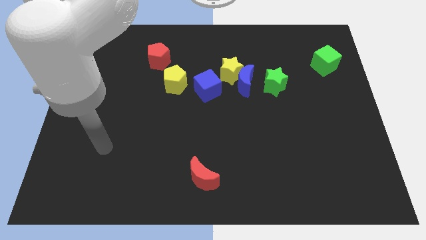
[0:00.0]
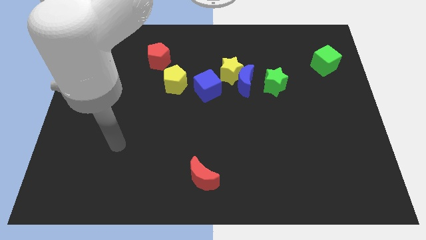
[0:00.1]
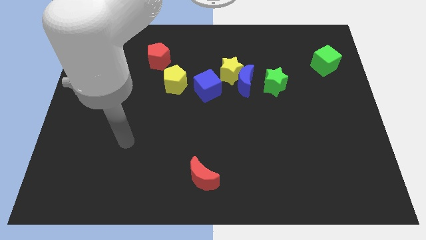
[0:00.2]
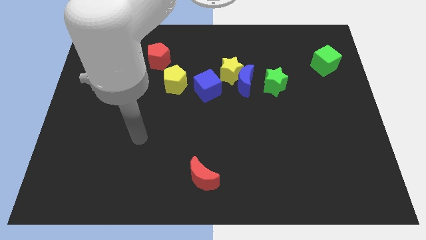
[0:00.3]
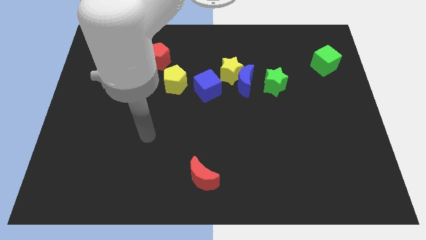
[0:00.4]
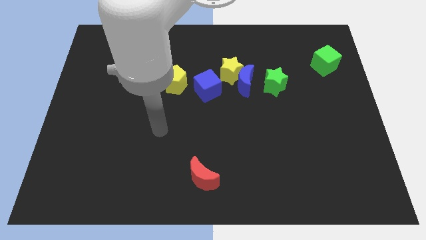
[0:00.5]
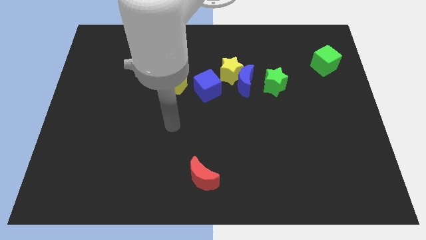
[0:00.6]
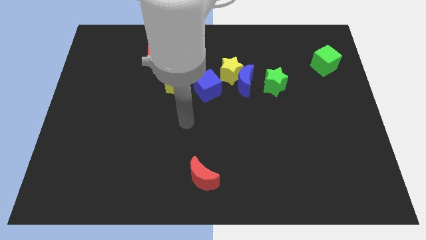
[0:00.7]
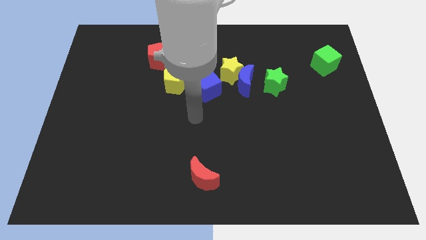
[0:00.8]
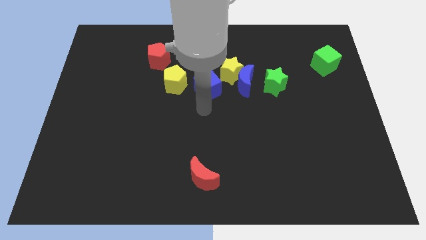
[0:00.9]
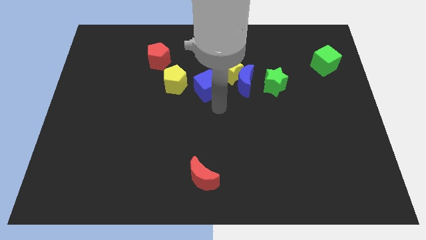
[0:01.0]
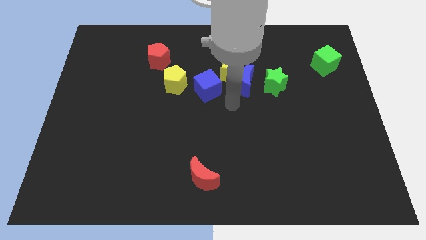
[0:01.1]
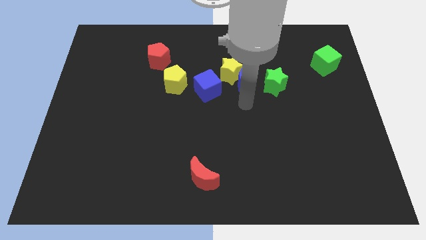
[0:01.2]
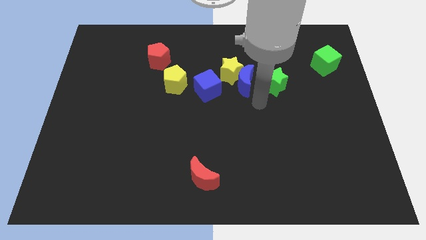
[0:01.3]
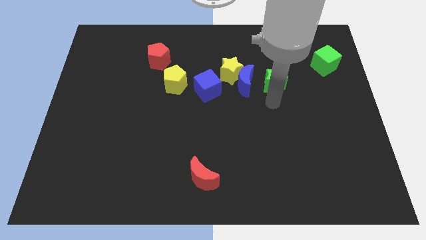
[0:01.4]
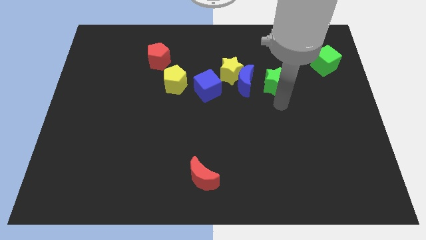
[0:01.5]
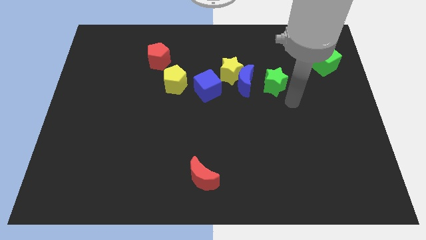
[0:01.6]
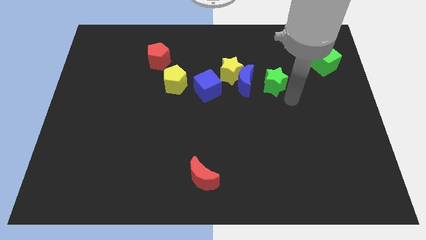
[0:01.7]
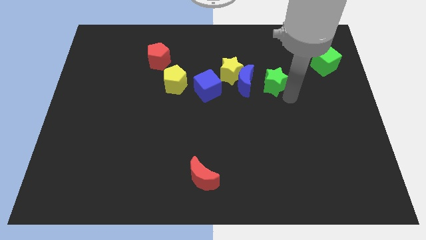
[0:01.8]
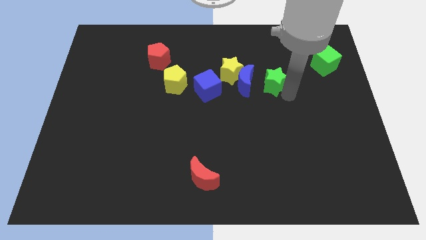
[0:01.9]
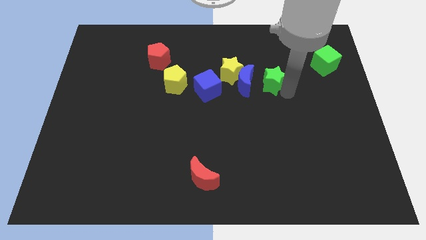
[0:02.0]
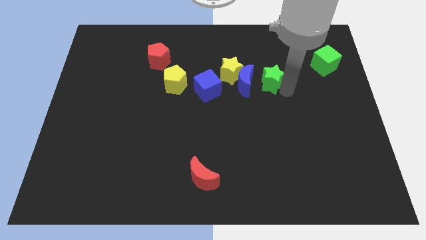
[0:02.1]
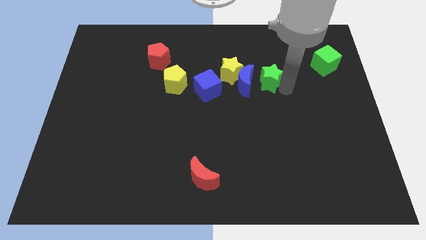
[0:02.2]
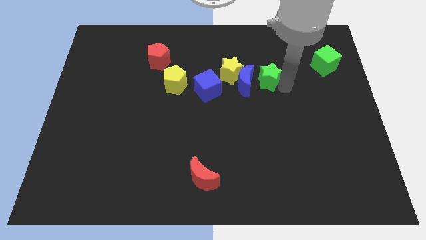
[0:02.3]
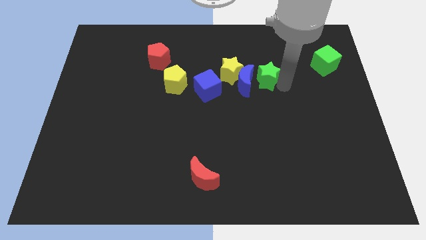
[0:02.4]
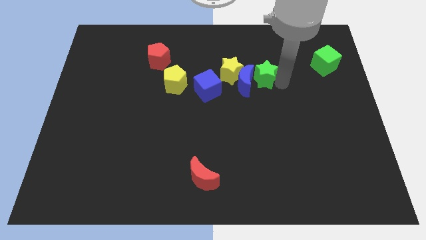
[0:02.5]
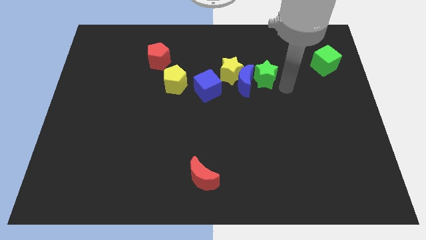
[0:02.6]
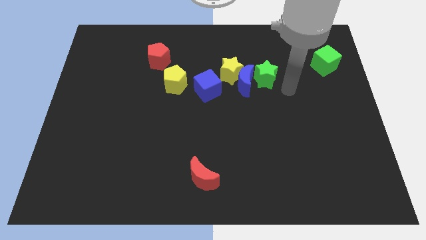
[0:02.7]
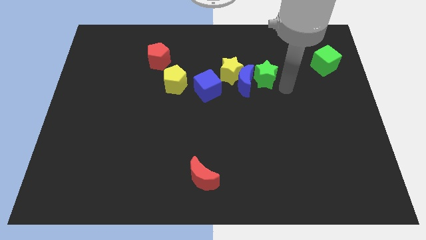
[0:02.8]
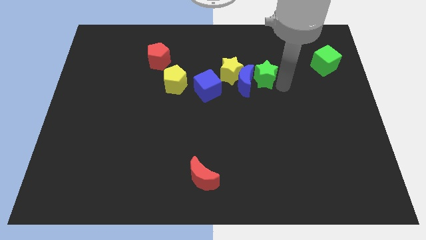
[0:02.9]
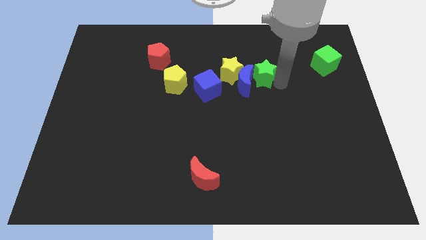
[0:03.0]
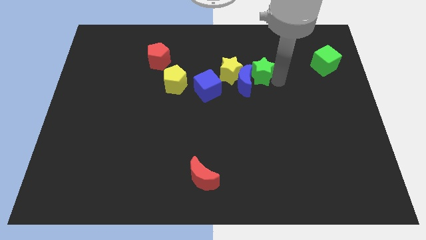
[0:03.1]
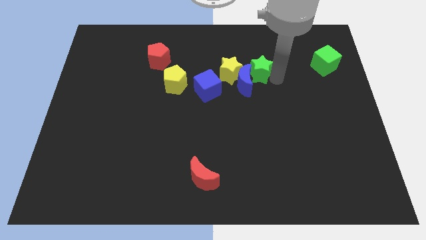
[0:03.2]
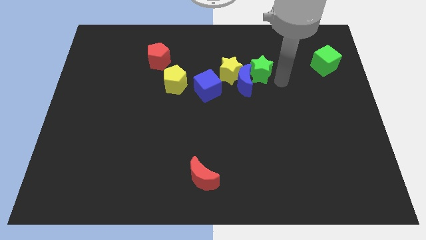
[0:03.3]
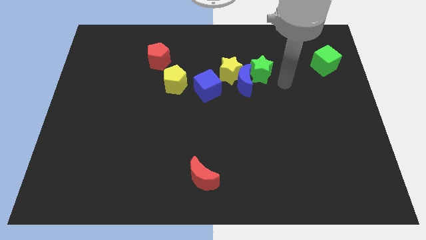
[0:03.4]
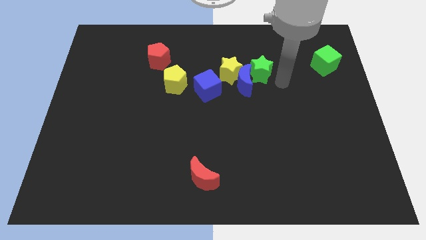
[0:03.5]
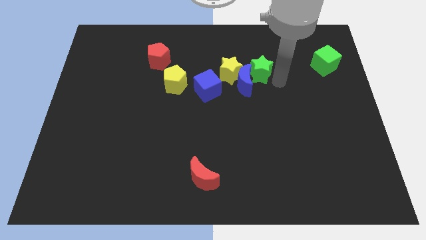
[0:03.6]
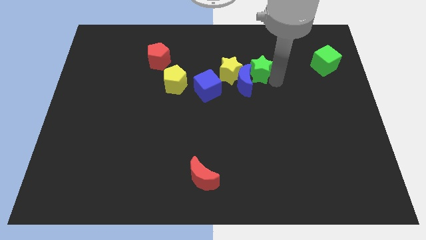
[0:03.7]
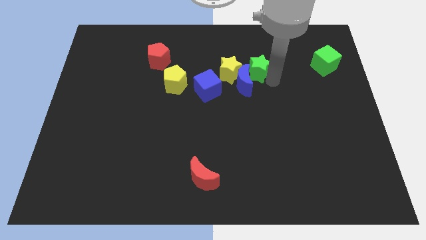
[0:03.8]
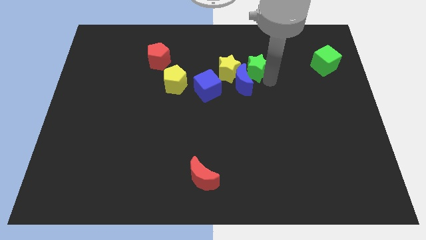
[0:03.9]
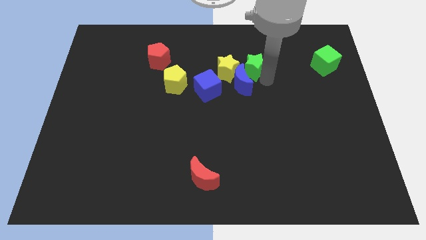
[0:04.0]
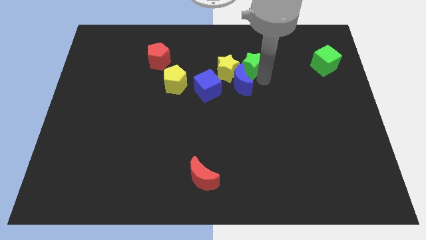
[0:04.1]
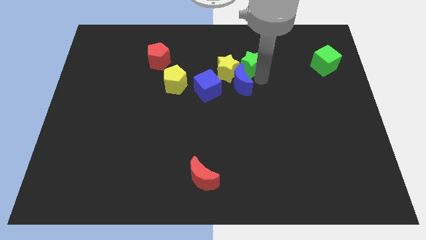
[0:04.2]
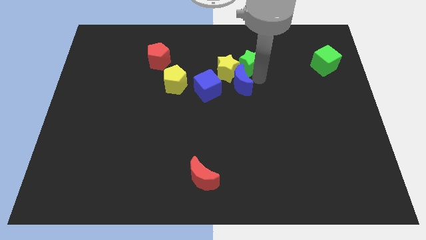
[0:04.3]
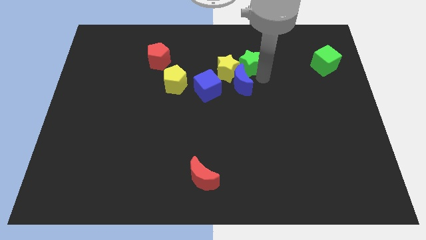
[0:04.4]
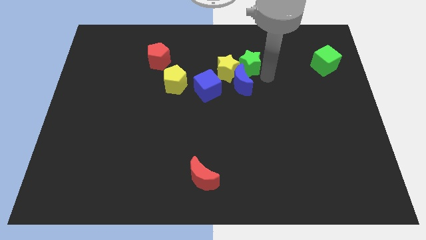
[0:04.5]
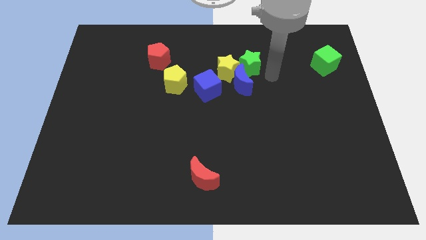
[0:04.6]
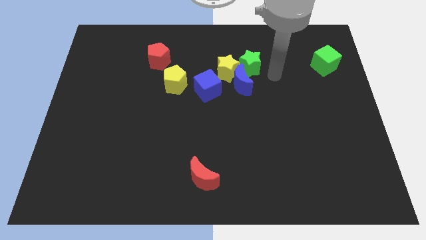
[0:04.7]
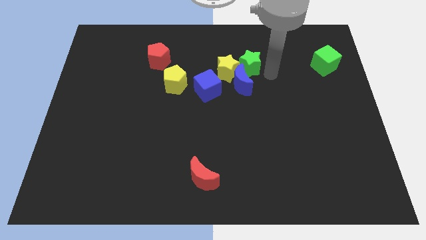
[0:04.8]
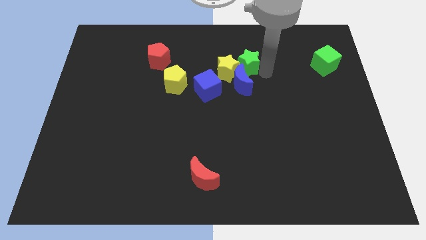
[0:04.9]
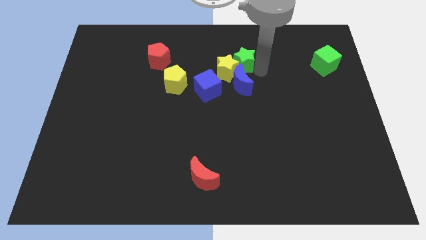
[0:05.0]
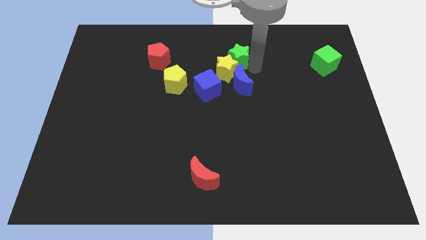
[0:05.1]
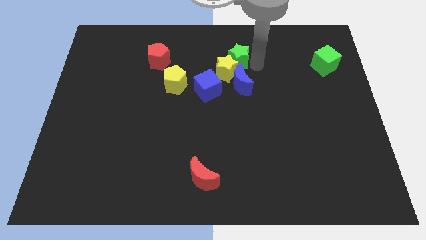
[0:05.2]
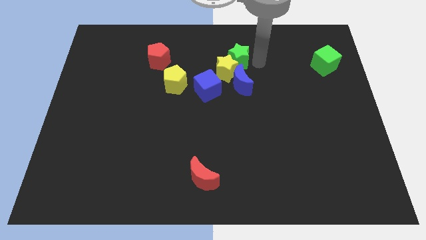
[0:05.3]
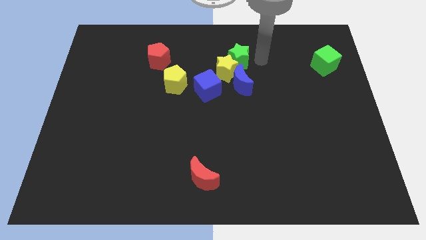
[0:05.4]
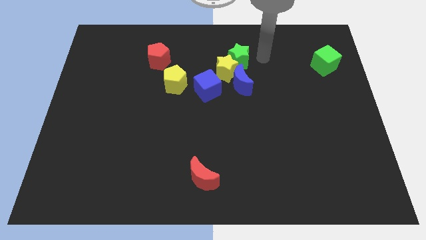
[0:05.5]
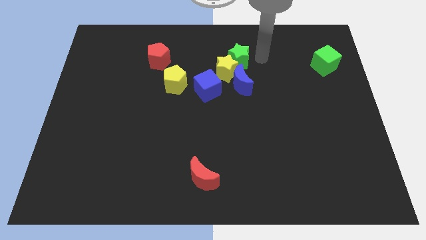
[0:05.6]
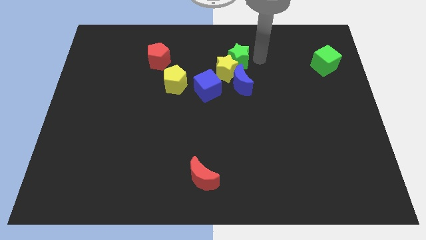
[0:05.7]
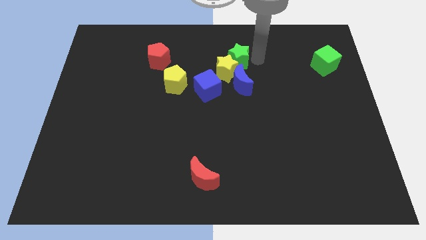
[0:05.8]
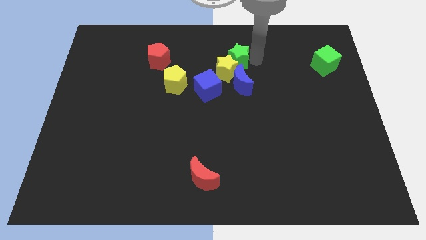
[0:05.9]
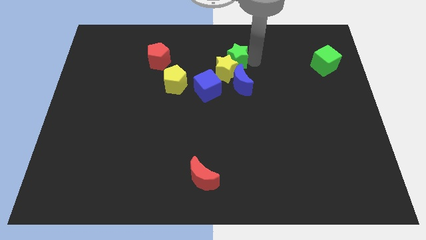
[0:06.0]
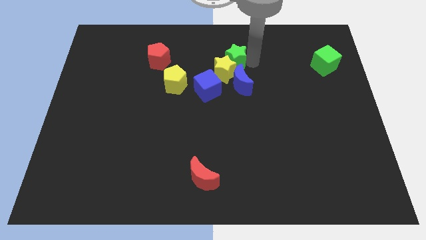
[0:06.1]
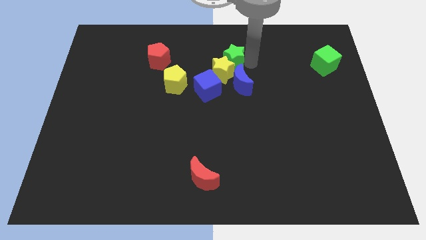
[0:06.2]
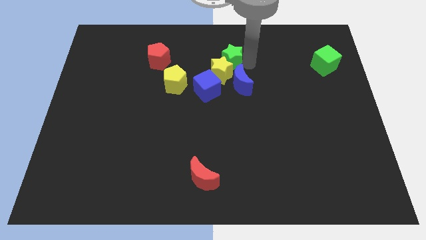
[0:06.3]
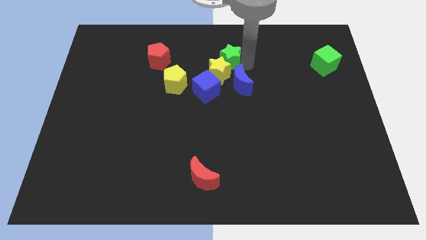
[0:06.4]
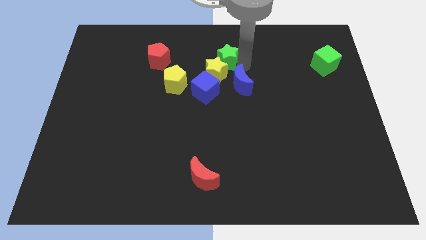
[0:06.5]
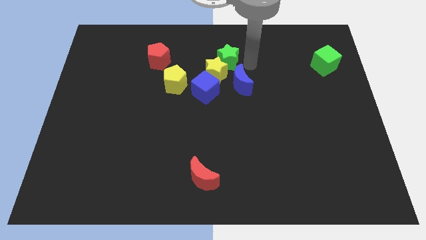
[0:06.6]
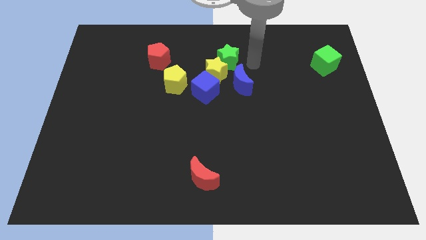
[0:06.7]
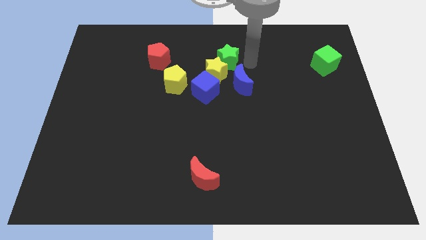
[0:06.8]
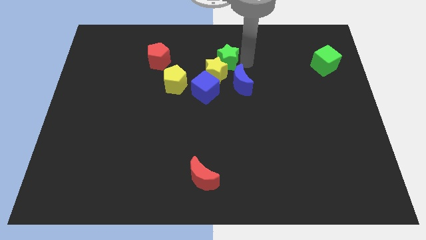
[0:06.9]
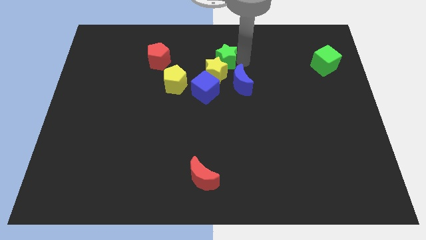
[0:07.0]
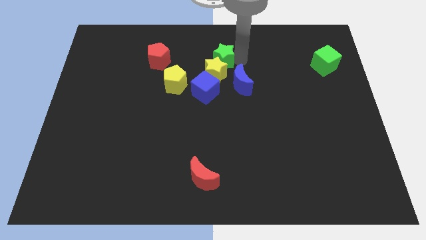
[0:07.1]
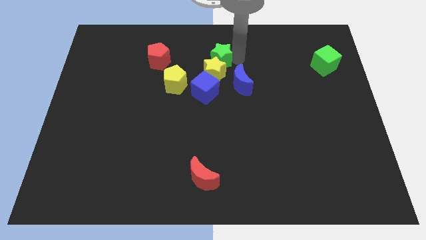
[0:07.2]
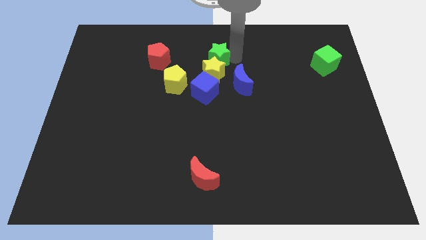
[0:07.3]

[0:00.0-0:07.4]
slide the green star to the right side of the red pentagon
